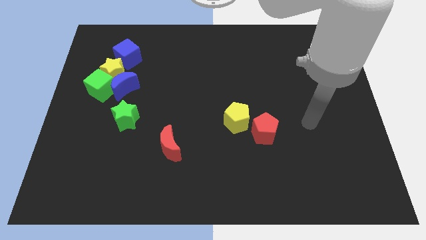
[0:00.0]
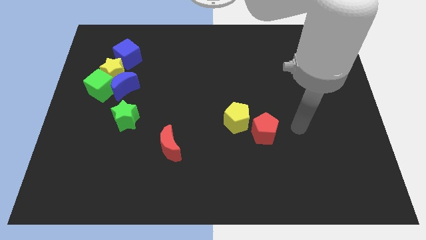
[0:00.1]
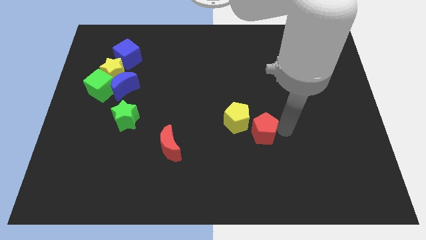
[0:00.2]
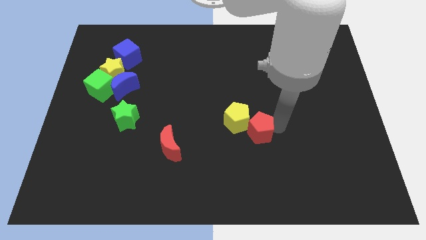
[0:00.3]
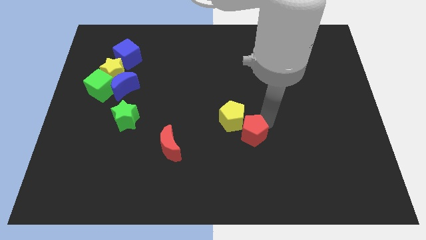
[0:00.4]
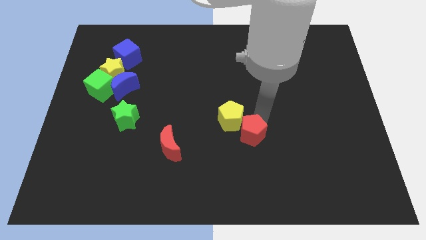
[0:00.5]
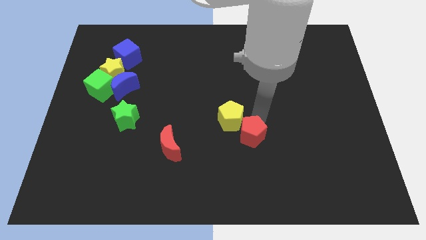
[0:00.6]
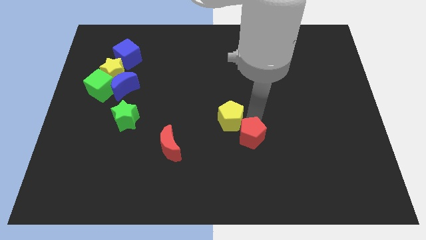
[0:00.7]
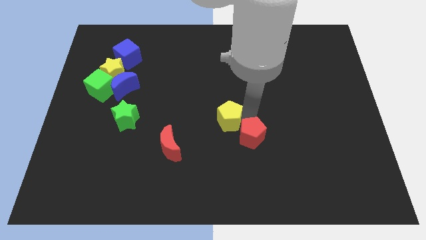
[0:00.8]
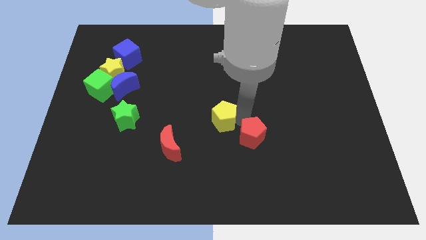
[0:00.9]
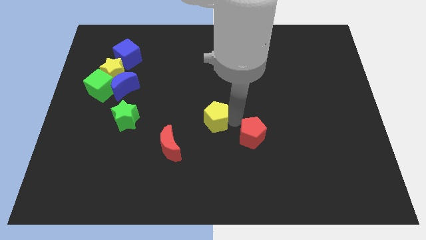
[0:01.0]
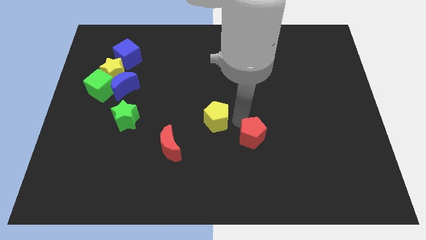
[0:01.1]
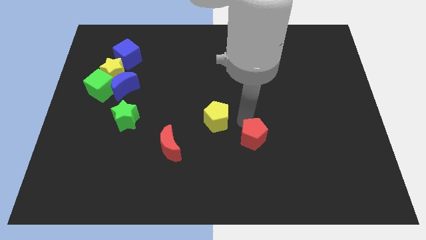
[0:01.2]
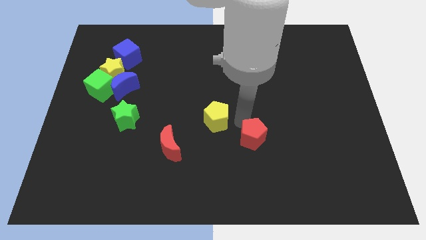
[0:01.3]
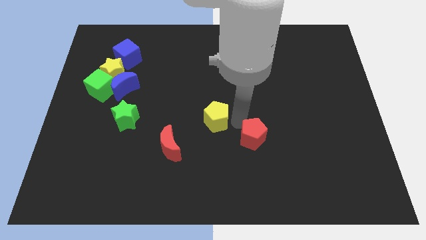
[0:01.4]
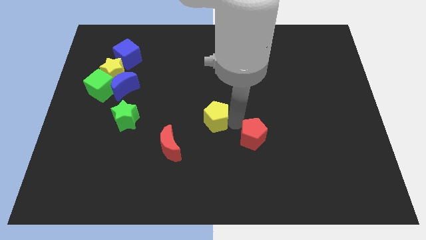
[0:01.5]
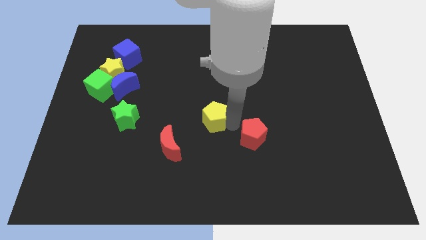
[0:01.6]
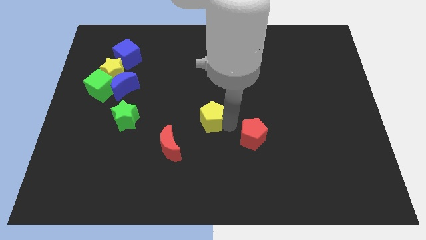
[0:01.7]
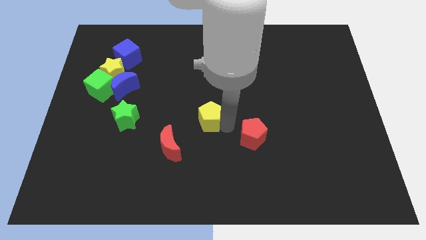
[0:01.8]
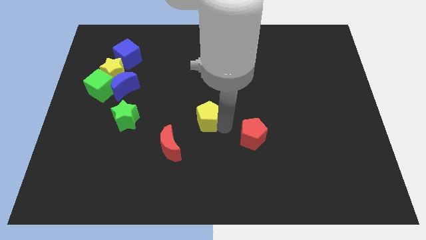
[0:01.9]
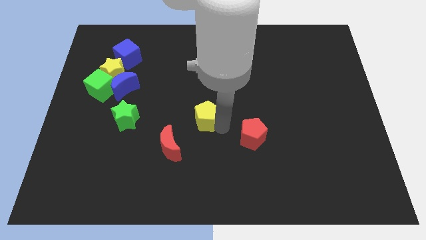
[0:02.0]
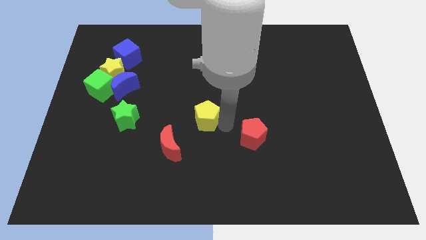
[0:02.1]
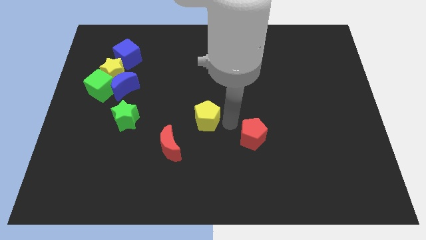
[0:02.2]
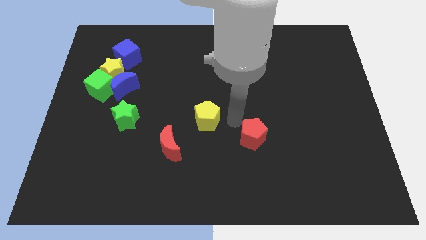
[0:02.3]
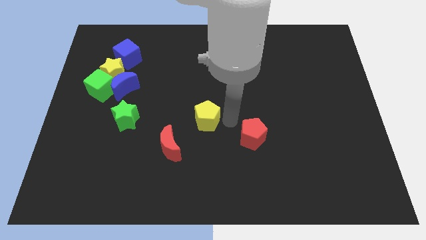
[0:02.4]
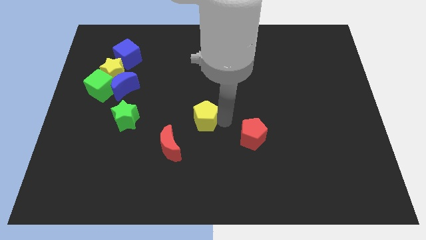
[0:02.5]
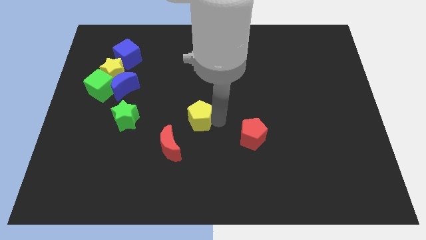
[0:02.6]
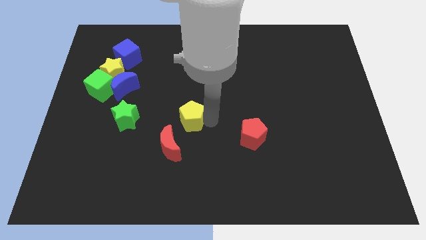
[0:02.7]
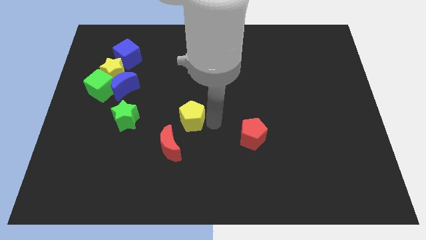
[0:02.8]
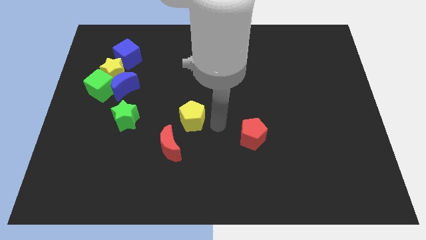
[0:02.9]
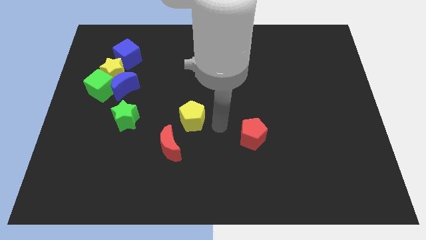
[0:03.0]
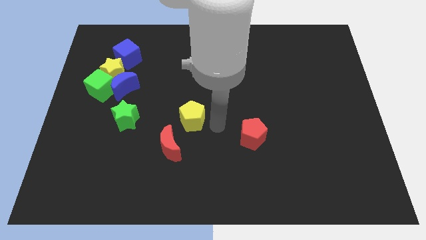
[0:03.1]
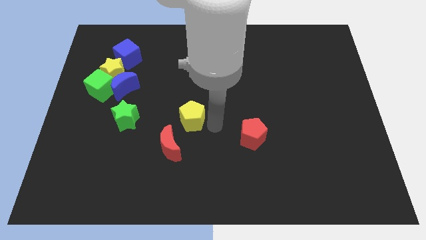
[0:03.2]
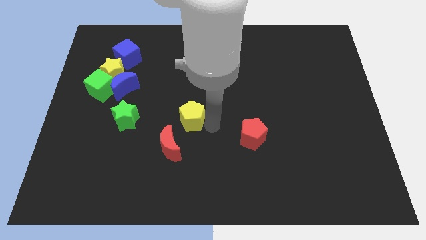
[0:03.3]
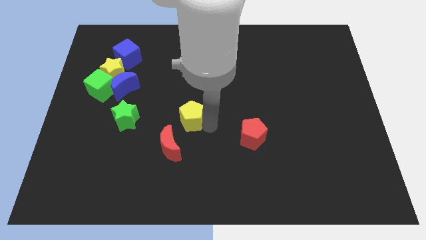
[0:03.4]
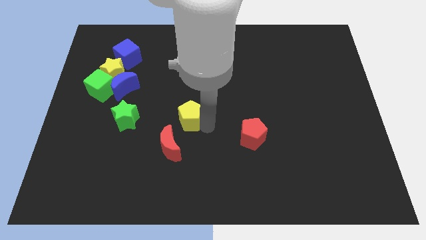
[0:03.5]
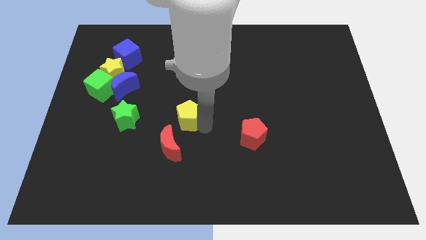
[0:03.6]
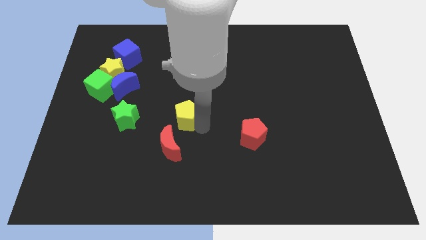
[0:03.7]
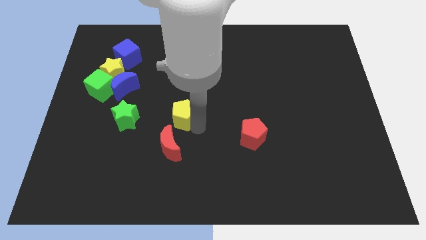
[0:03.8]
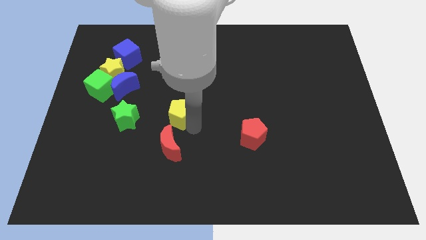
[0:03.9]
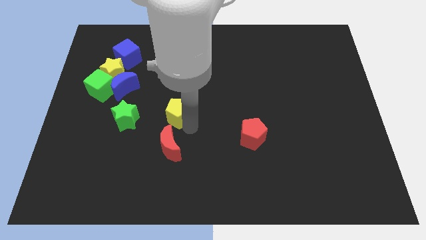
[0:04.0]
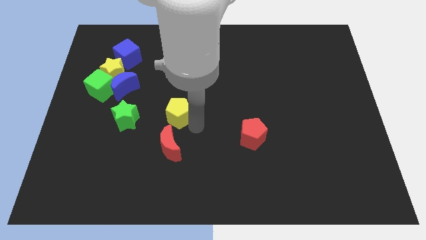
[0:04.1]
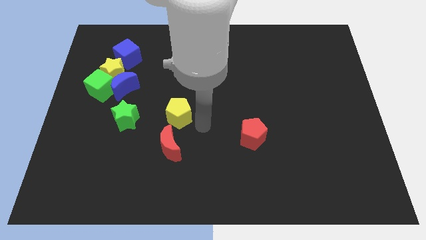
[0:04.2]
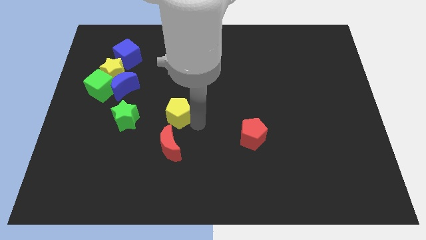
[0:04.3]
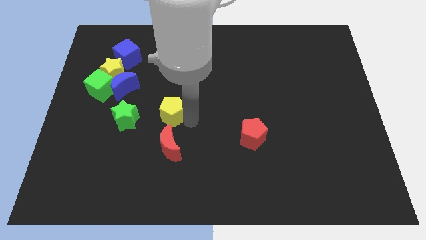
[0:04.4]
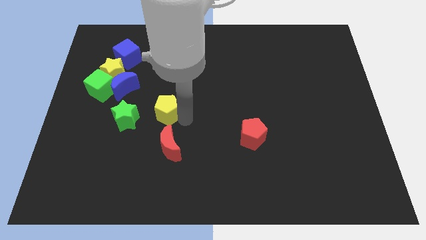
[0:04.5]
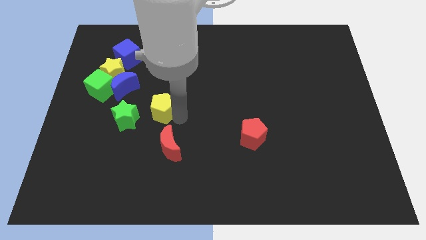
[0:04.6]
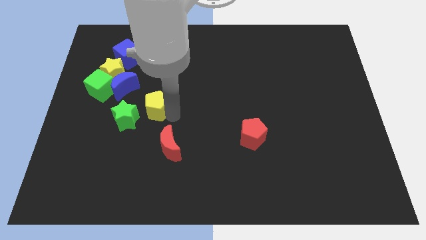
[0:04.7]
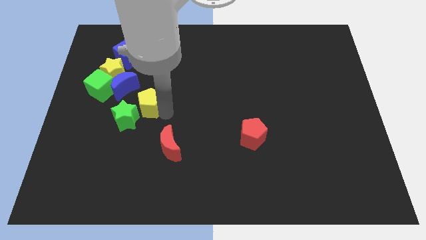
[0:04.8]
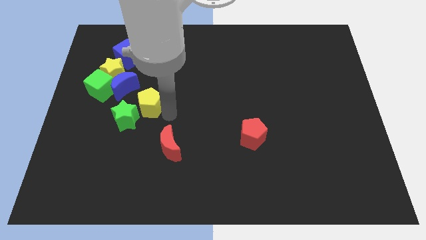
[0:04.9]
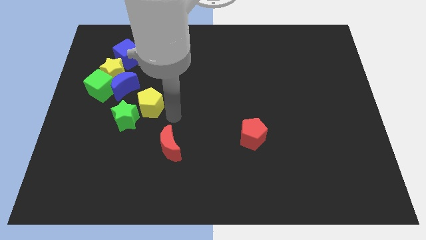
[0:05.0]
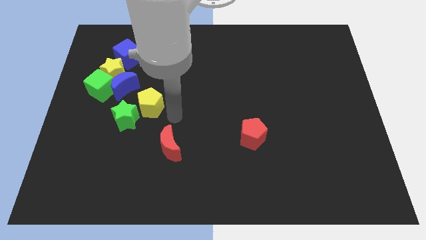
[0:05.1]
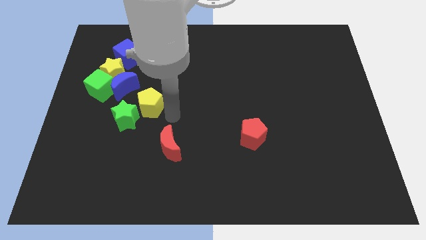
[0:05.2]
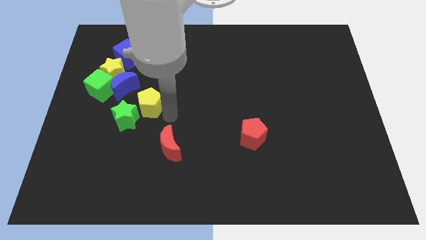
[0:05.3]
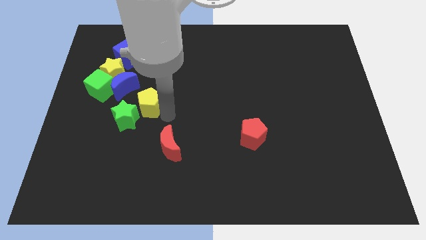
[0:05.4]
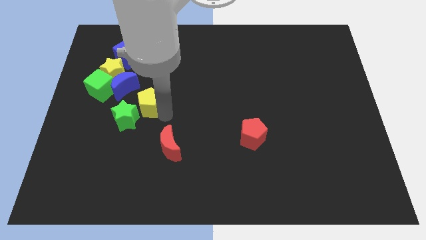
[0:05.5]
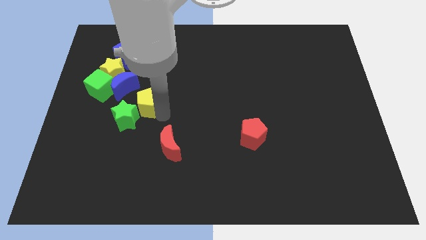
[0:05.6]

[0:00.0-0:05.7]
move the yellow pentagon left

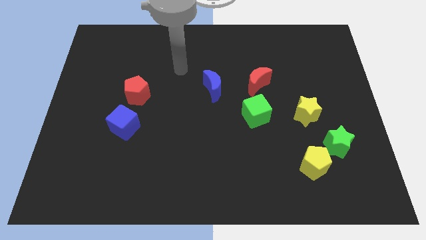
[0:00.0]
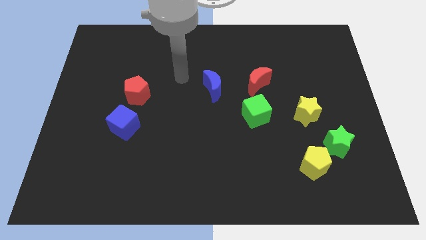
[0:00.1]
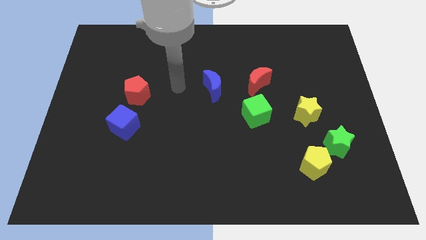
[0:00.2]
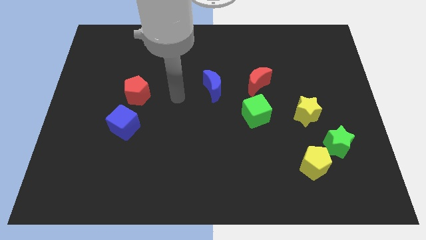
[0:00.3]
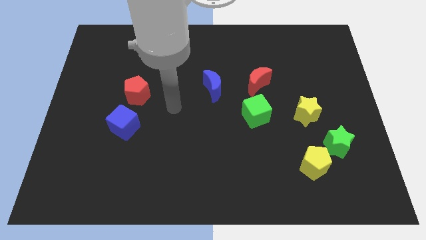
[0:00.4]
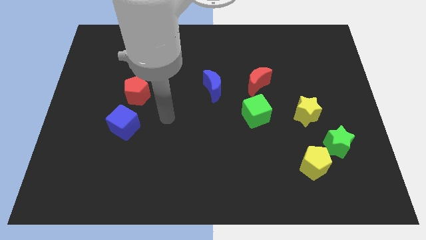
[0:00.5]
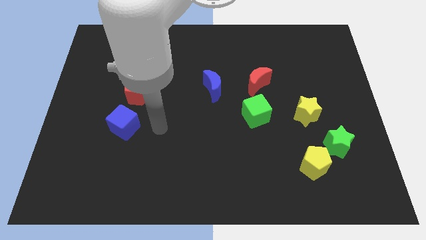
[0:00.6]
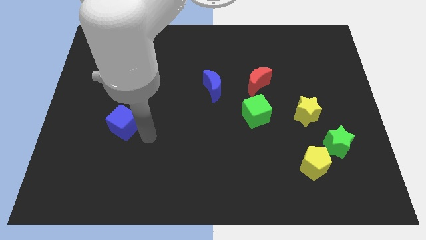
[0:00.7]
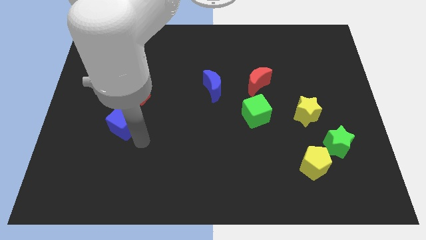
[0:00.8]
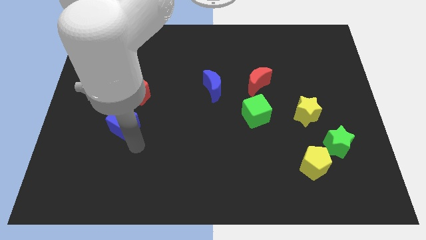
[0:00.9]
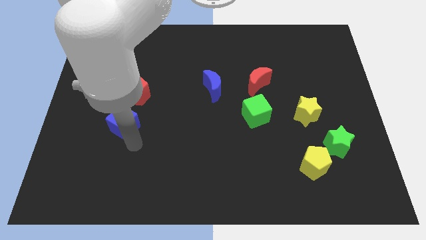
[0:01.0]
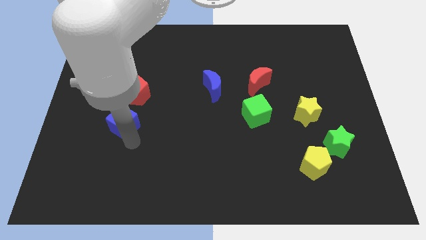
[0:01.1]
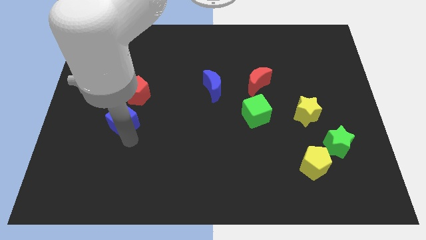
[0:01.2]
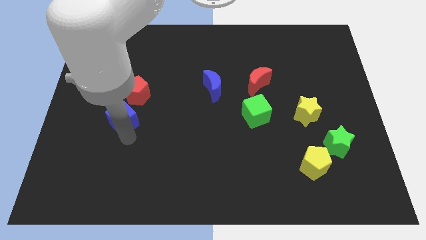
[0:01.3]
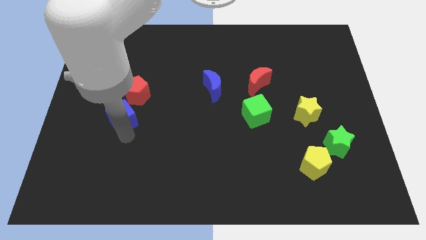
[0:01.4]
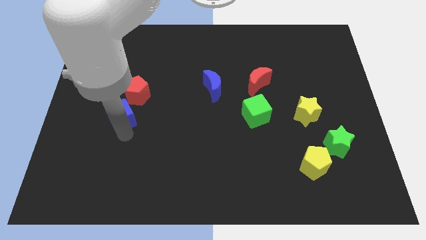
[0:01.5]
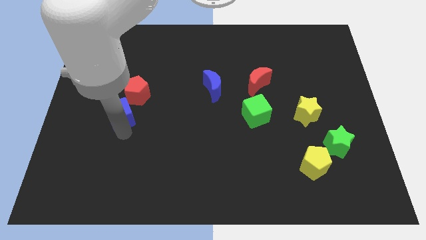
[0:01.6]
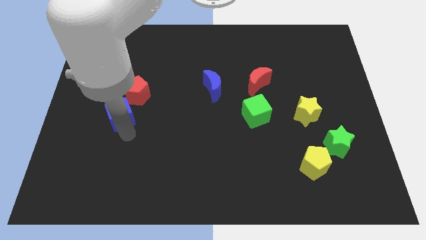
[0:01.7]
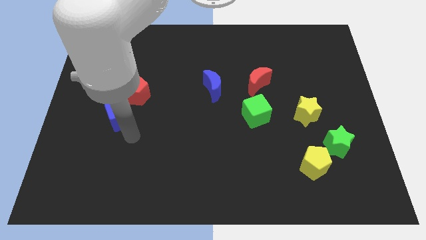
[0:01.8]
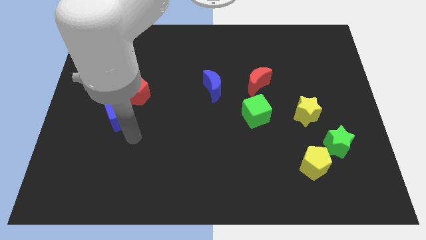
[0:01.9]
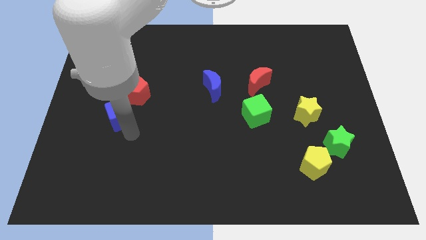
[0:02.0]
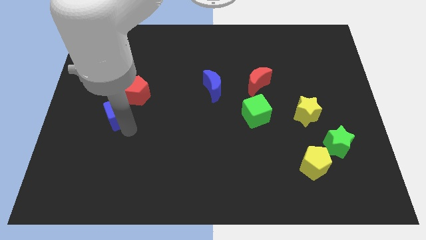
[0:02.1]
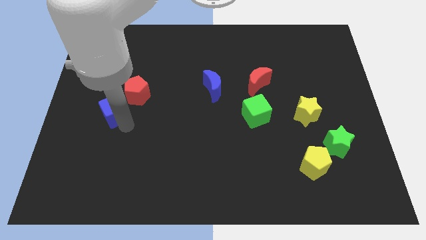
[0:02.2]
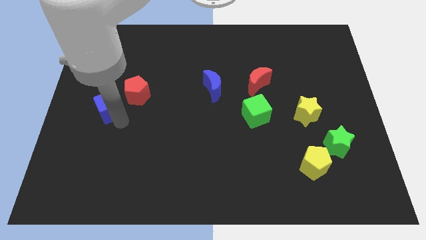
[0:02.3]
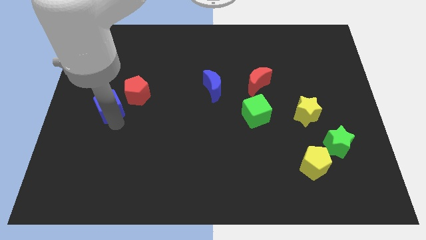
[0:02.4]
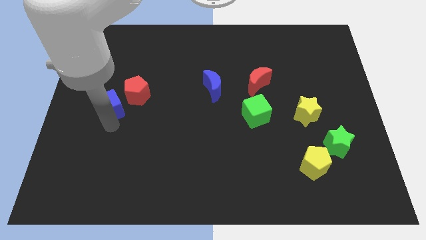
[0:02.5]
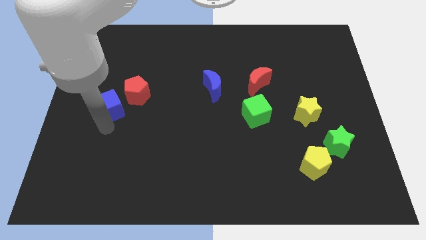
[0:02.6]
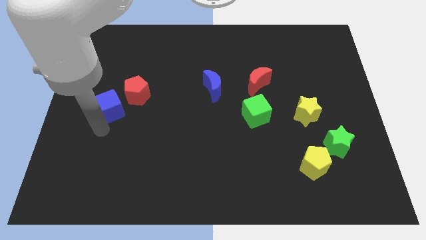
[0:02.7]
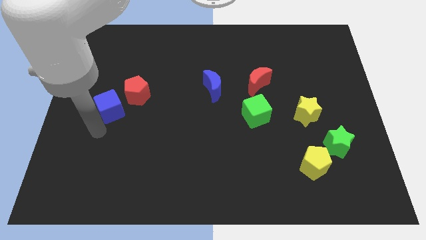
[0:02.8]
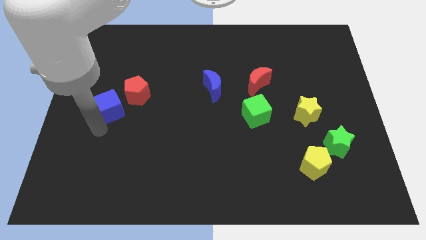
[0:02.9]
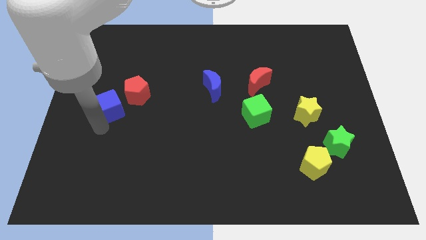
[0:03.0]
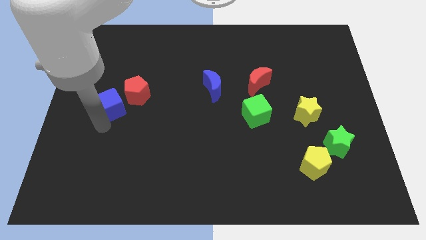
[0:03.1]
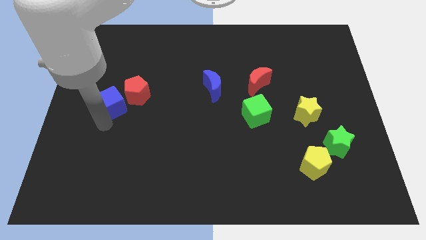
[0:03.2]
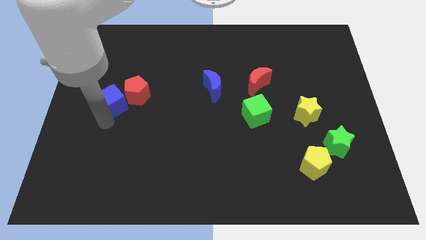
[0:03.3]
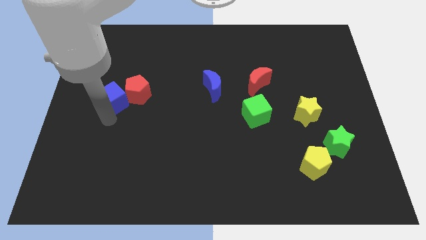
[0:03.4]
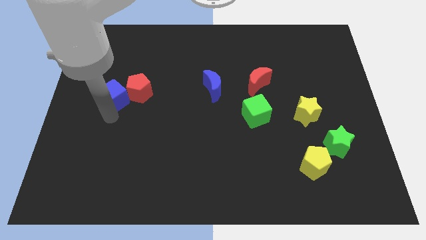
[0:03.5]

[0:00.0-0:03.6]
slide the blue cube up slightly
